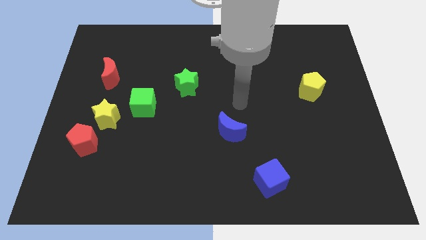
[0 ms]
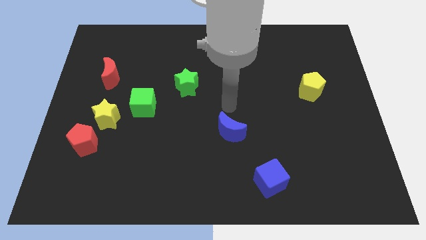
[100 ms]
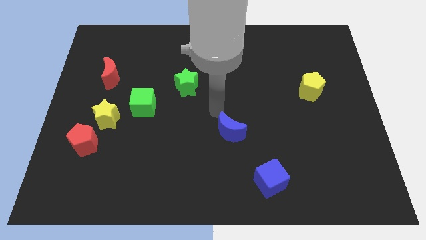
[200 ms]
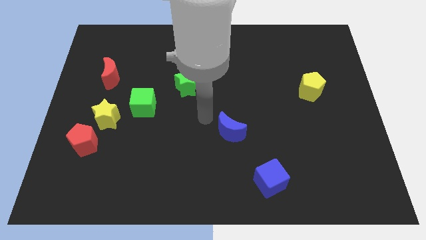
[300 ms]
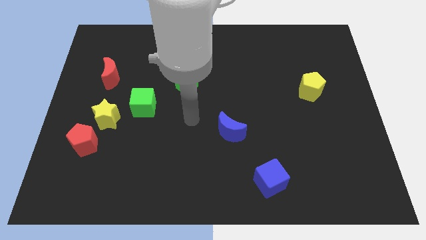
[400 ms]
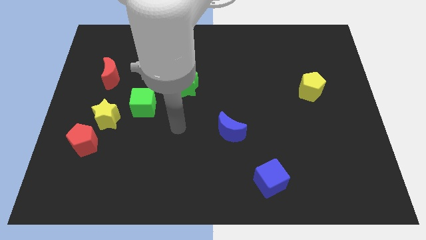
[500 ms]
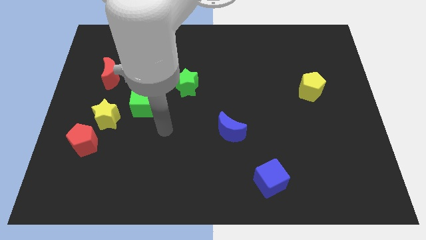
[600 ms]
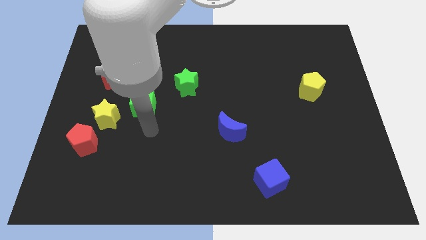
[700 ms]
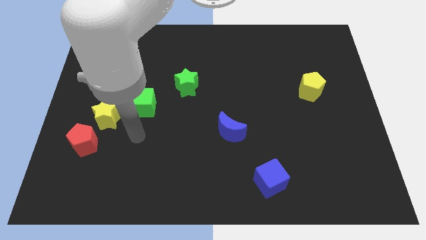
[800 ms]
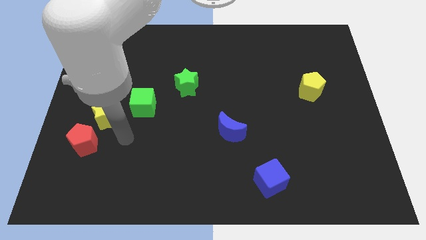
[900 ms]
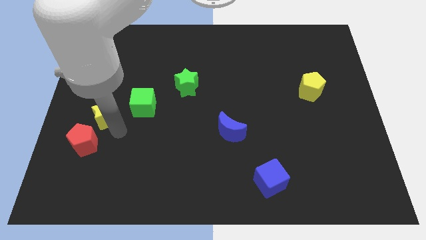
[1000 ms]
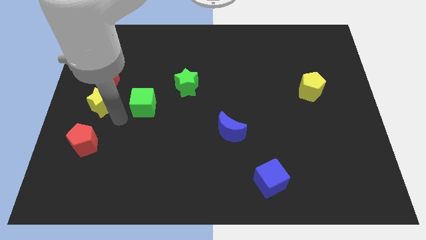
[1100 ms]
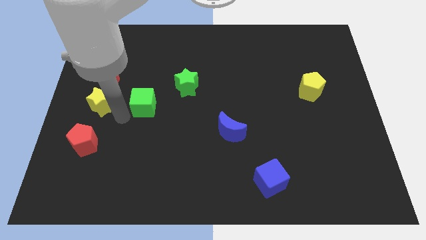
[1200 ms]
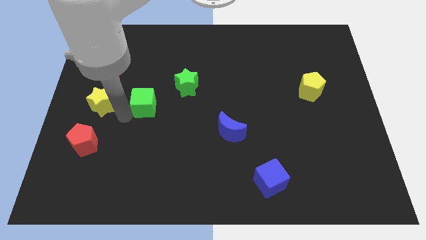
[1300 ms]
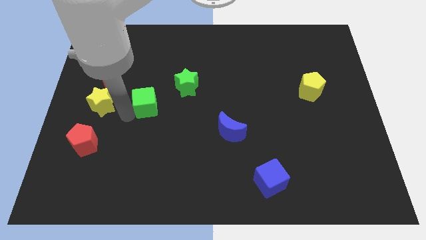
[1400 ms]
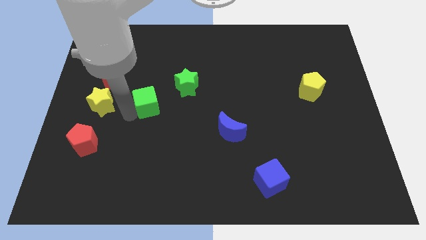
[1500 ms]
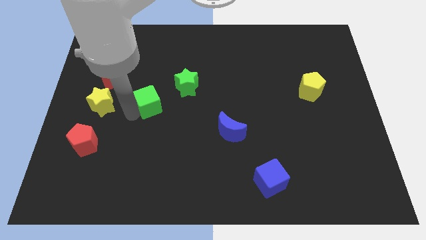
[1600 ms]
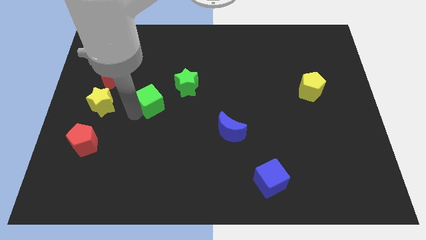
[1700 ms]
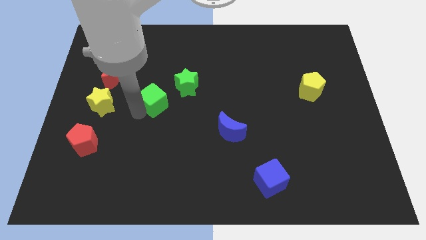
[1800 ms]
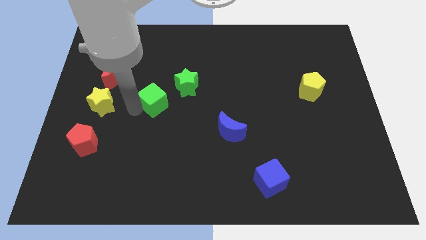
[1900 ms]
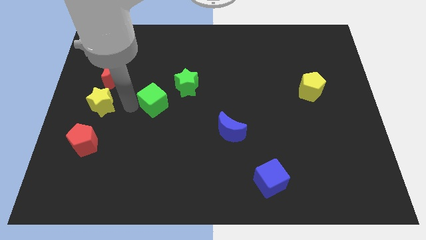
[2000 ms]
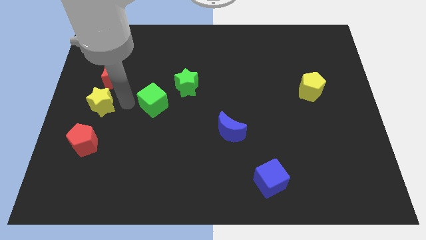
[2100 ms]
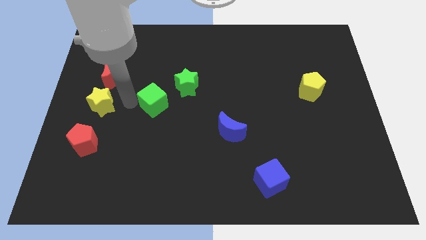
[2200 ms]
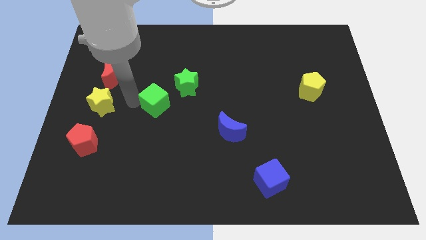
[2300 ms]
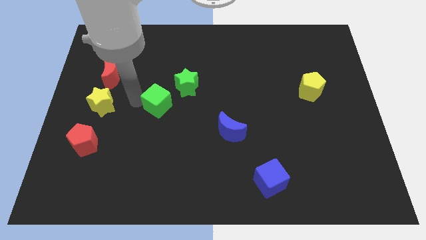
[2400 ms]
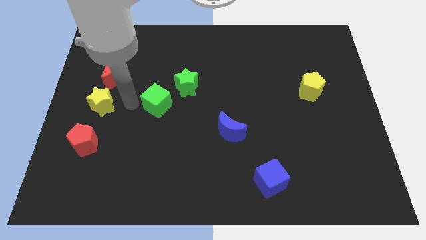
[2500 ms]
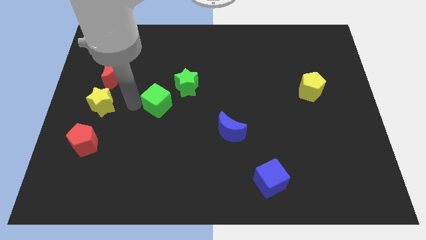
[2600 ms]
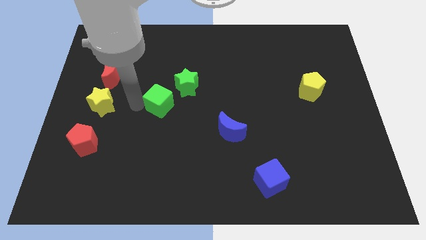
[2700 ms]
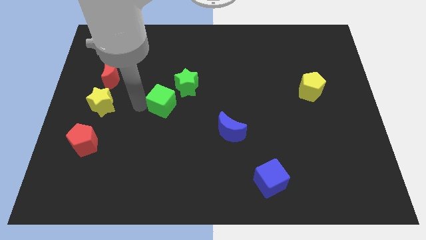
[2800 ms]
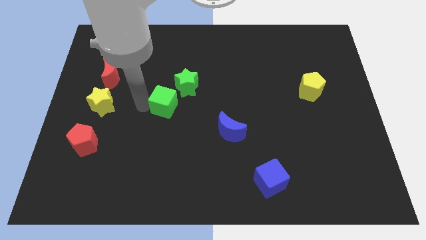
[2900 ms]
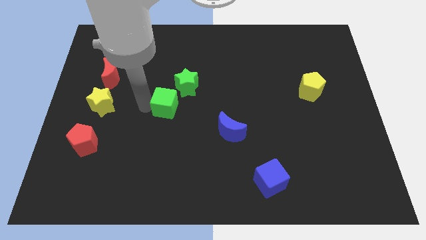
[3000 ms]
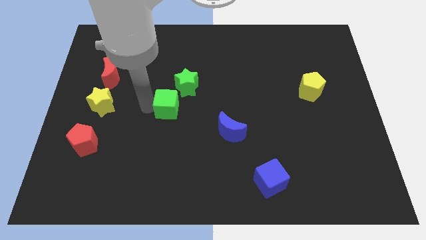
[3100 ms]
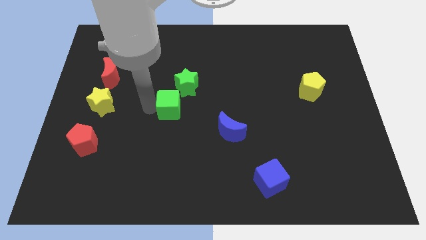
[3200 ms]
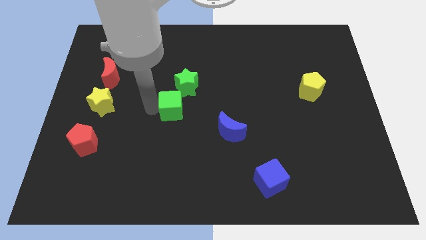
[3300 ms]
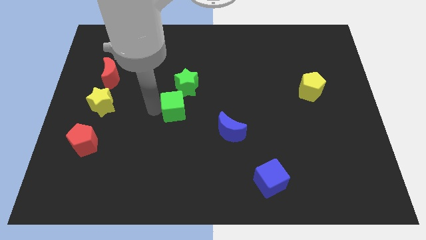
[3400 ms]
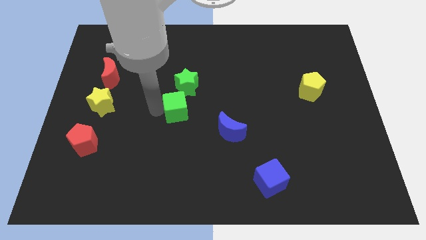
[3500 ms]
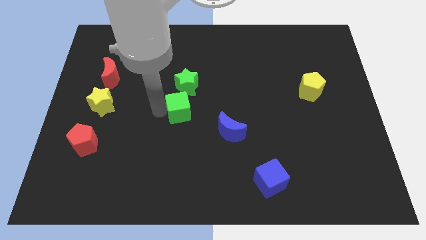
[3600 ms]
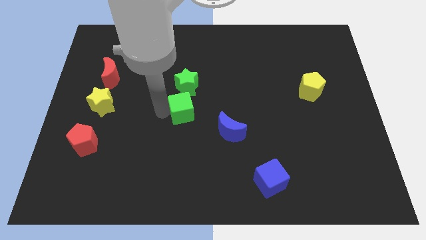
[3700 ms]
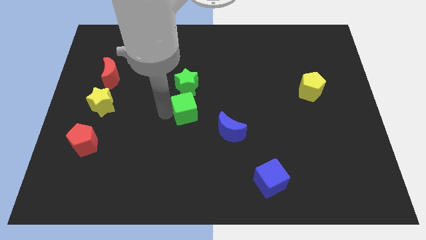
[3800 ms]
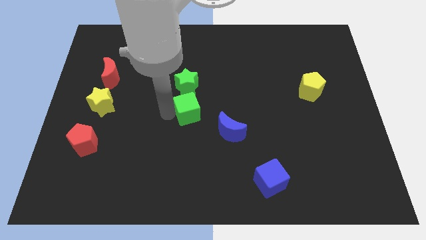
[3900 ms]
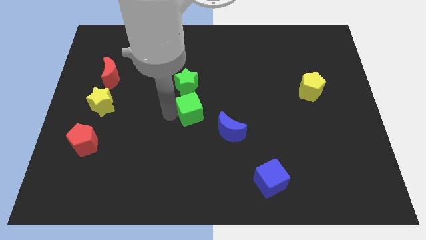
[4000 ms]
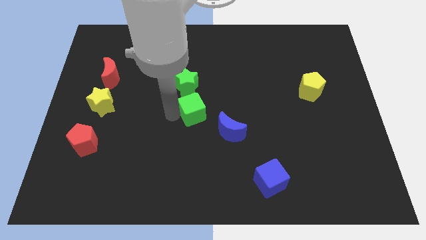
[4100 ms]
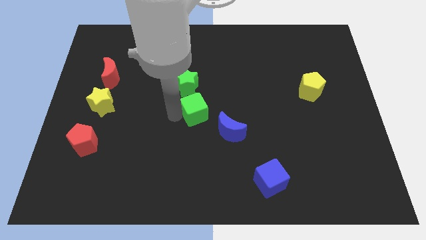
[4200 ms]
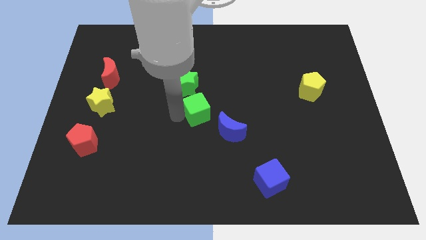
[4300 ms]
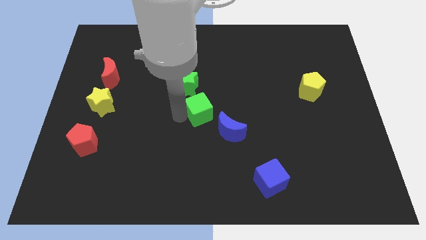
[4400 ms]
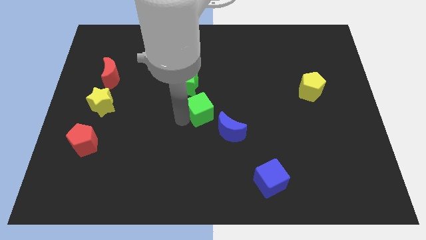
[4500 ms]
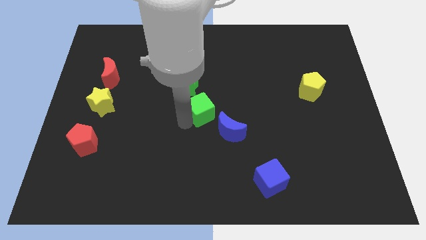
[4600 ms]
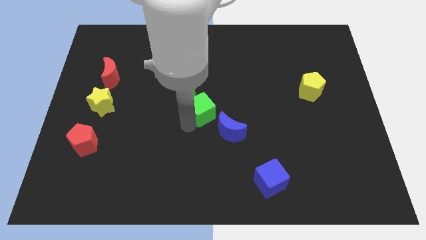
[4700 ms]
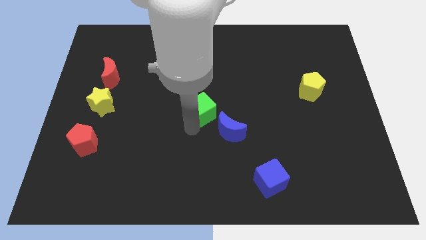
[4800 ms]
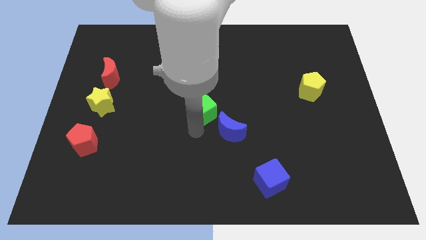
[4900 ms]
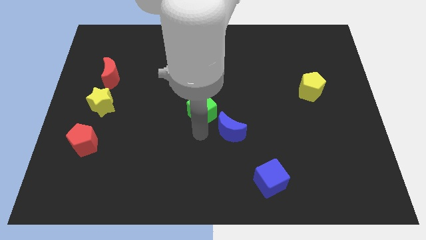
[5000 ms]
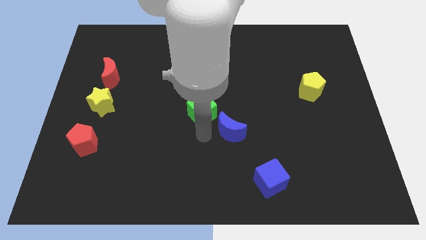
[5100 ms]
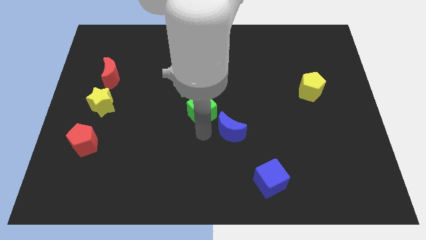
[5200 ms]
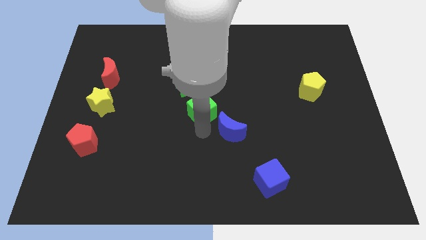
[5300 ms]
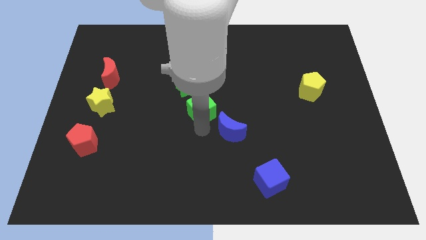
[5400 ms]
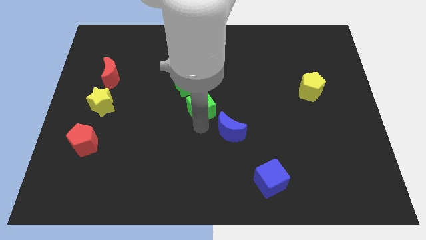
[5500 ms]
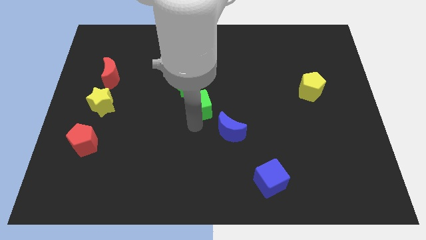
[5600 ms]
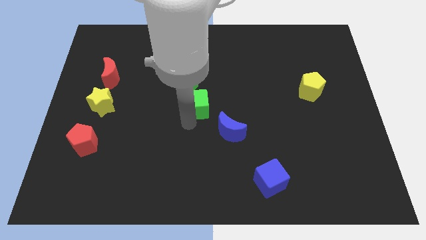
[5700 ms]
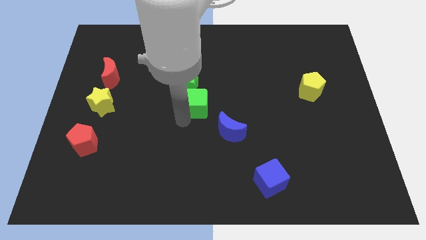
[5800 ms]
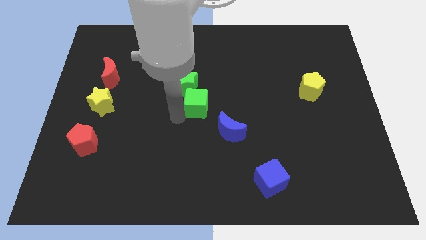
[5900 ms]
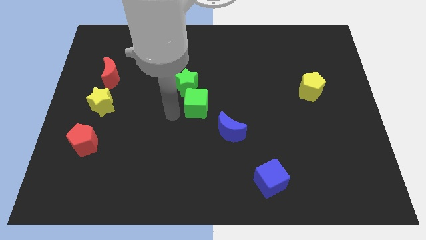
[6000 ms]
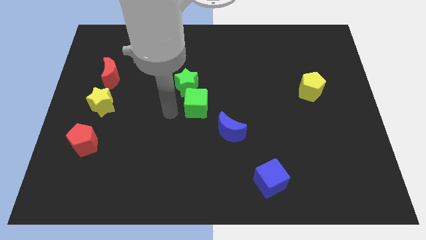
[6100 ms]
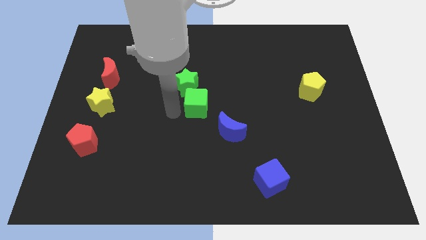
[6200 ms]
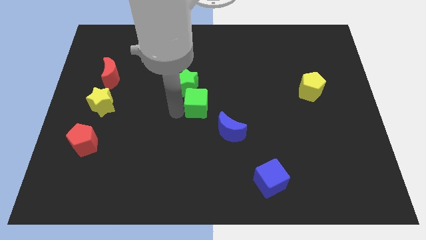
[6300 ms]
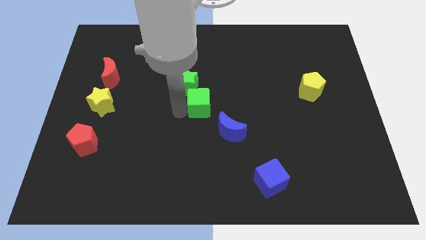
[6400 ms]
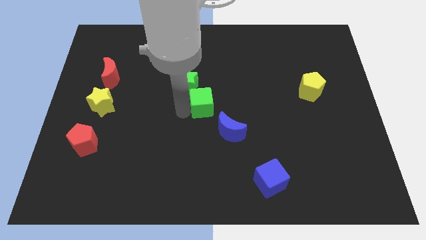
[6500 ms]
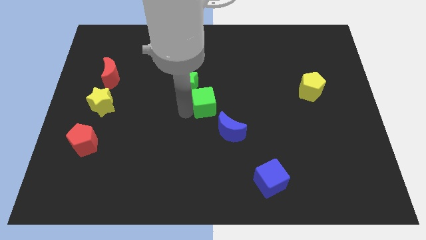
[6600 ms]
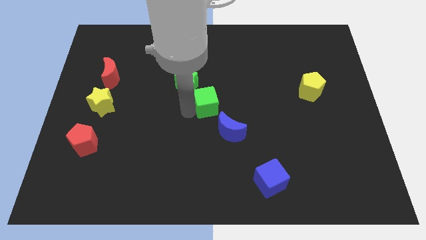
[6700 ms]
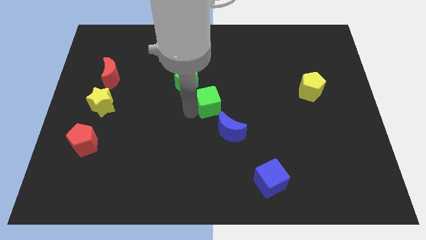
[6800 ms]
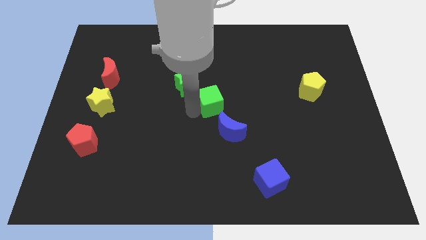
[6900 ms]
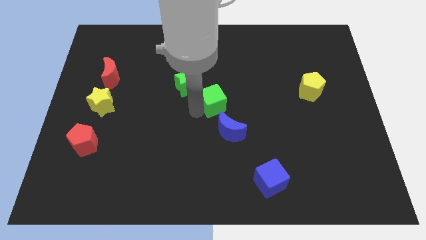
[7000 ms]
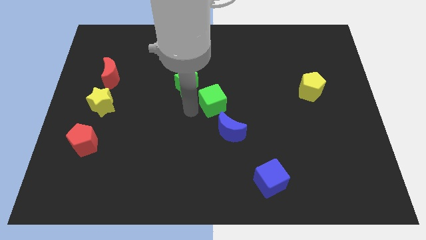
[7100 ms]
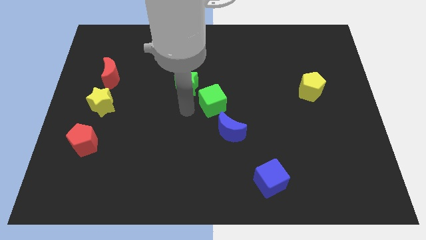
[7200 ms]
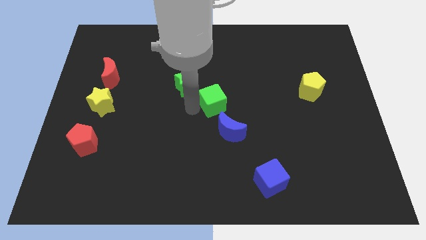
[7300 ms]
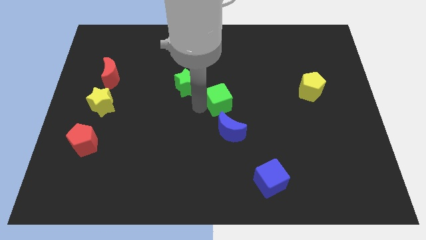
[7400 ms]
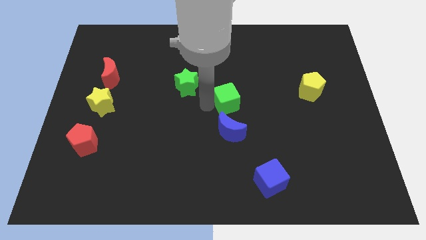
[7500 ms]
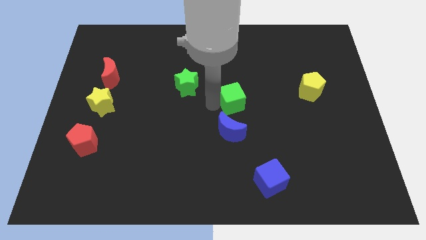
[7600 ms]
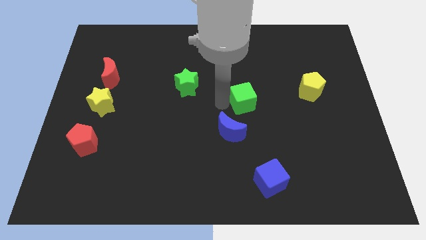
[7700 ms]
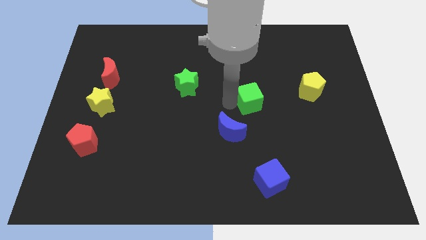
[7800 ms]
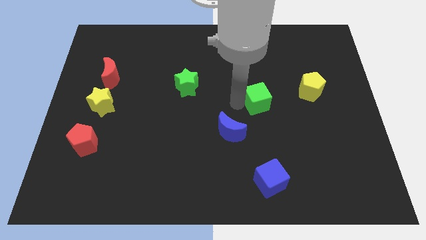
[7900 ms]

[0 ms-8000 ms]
put the green cube left of the yellow pentagon

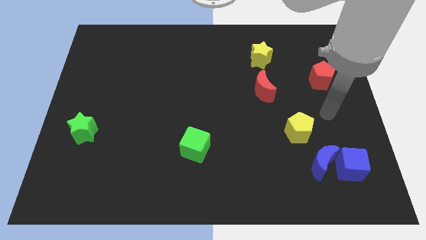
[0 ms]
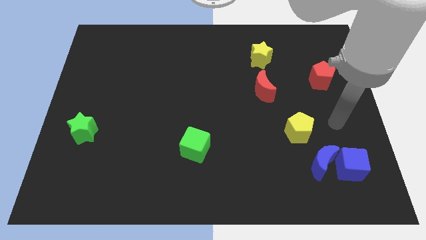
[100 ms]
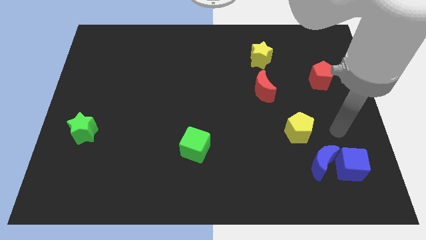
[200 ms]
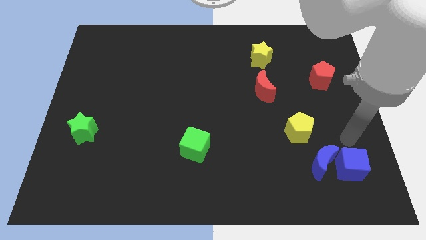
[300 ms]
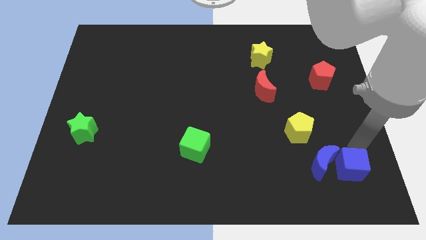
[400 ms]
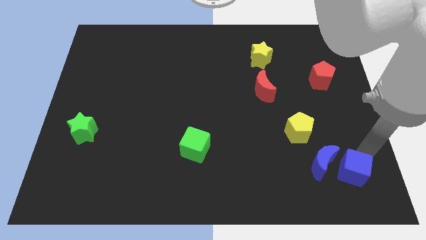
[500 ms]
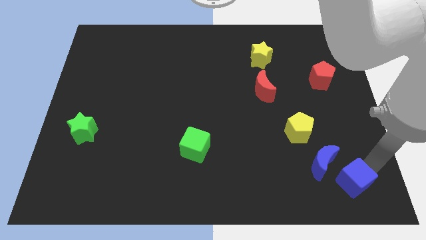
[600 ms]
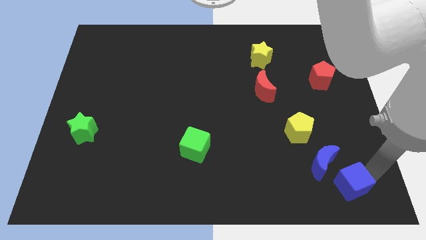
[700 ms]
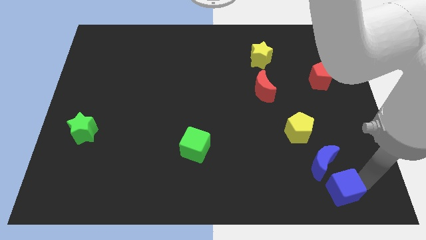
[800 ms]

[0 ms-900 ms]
put the blue moon to the top side of the blue cube
